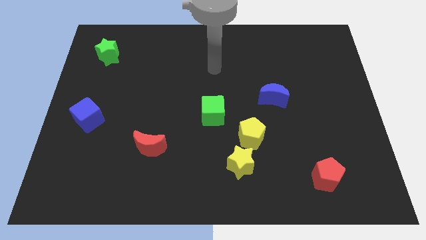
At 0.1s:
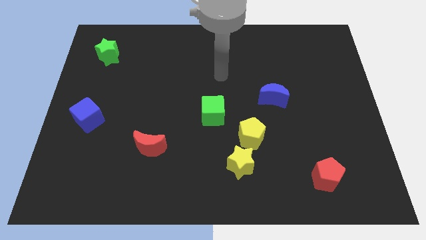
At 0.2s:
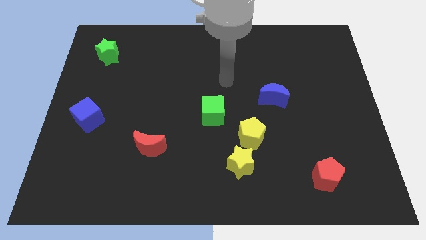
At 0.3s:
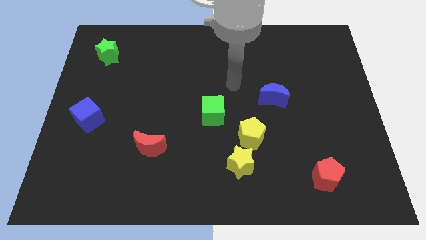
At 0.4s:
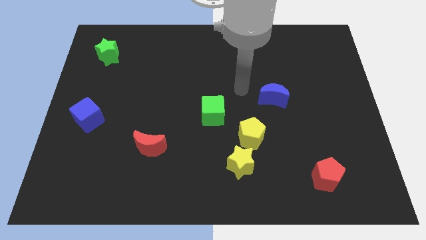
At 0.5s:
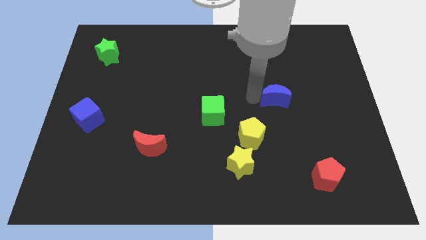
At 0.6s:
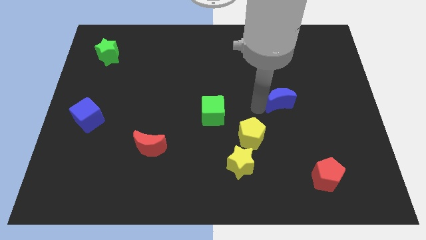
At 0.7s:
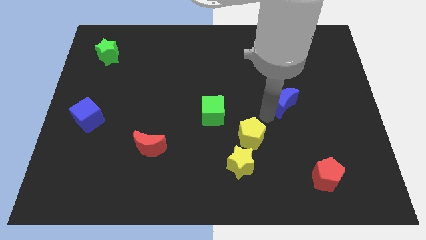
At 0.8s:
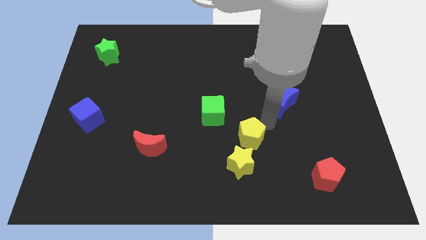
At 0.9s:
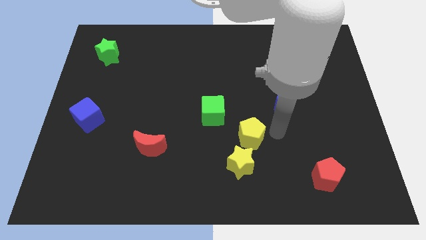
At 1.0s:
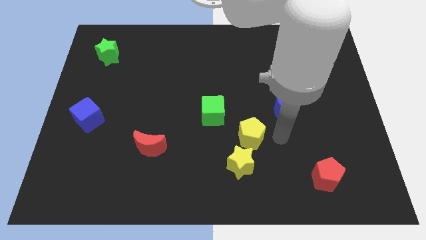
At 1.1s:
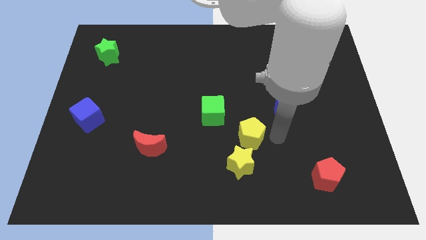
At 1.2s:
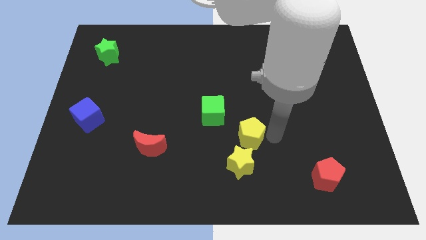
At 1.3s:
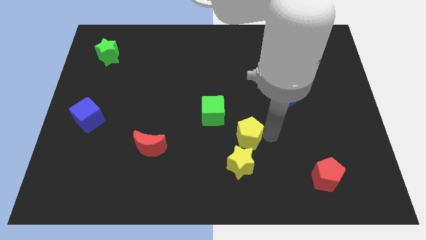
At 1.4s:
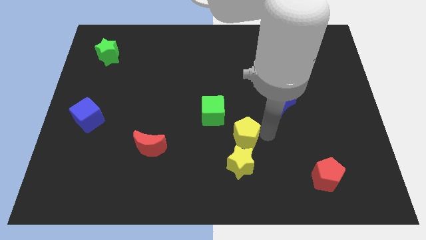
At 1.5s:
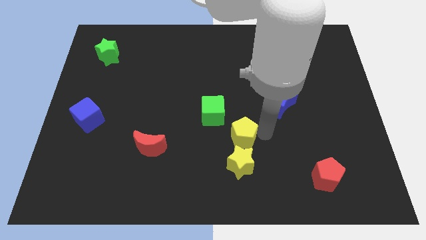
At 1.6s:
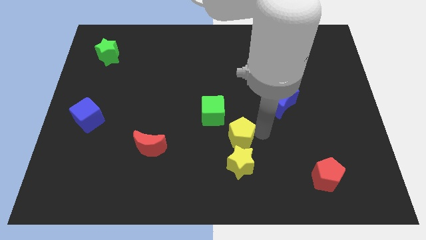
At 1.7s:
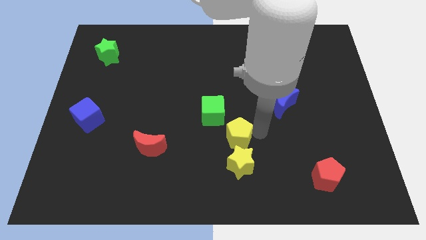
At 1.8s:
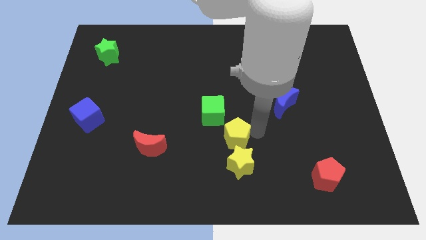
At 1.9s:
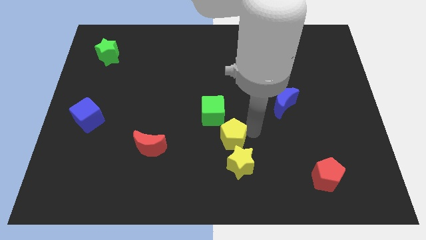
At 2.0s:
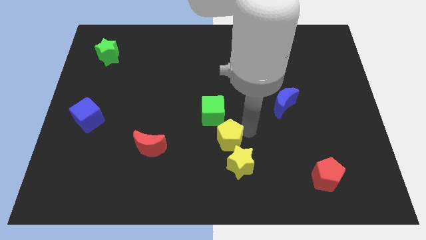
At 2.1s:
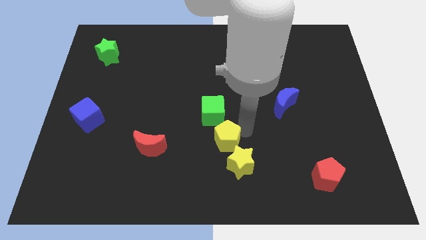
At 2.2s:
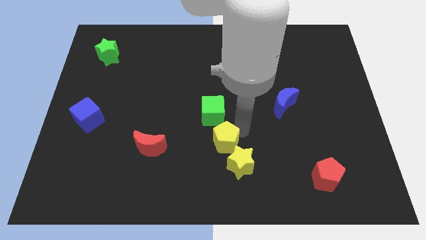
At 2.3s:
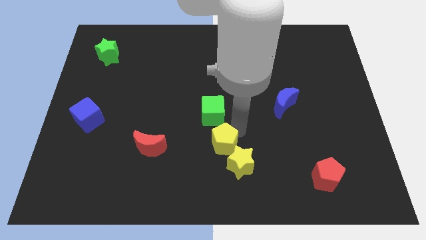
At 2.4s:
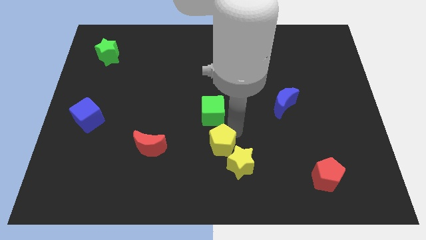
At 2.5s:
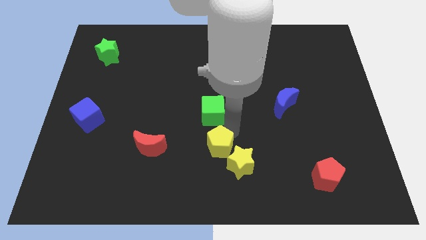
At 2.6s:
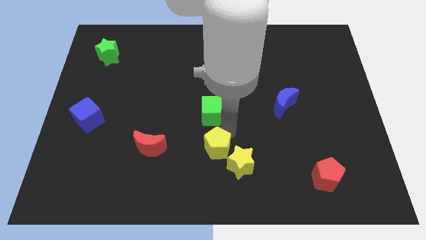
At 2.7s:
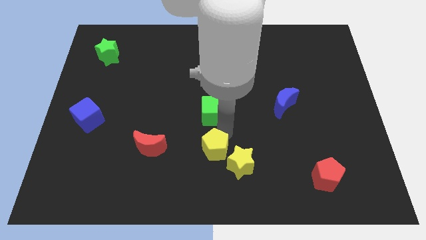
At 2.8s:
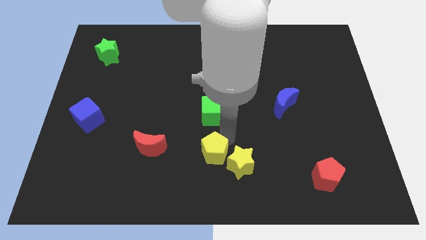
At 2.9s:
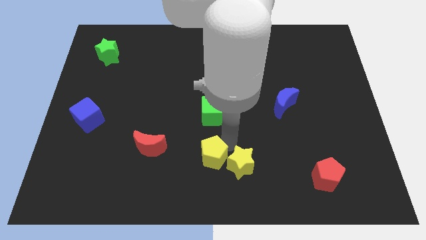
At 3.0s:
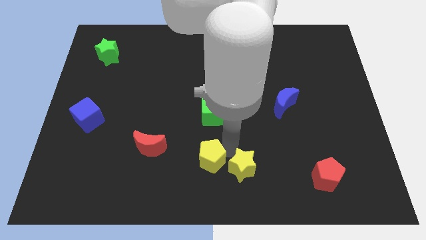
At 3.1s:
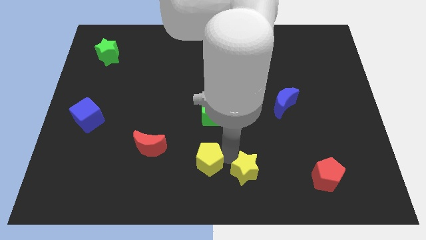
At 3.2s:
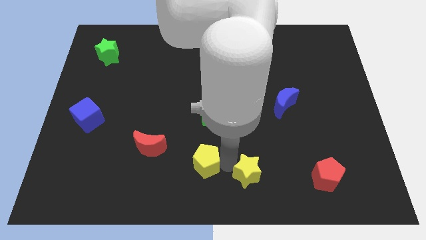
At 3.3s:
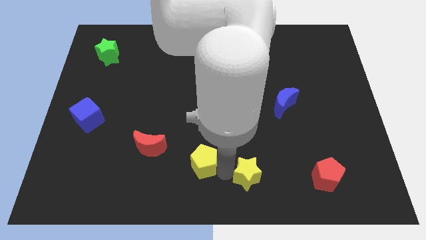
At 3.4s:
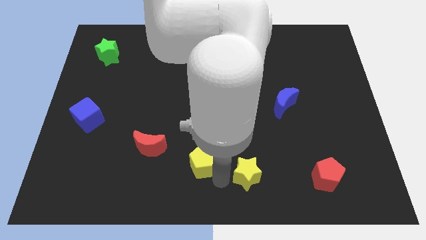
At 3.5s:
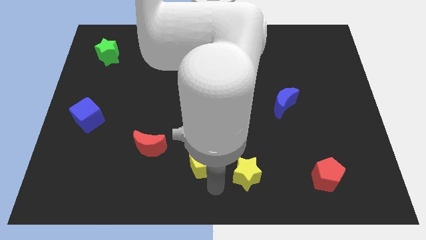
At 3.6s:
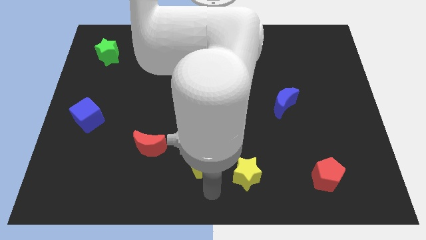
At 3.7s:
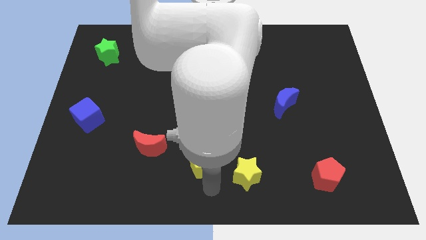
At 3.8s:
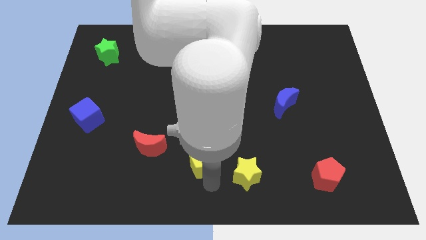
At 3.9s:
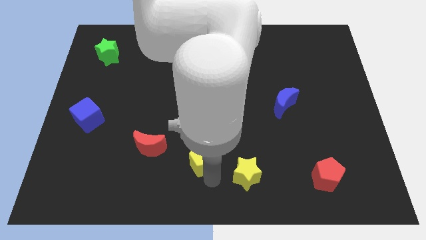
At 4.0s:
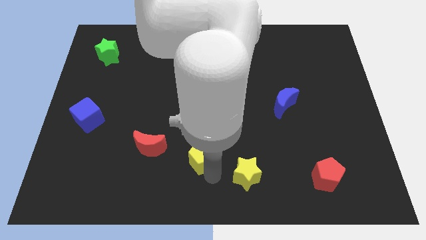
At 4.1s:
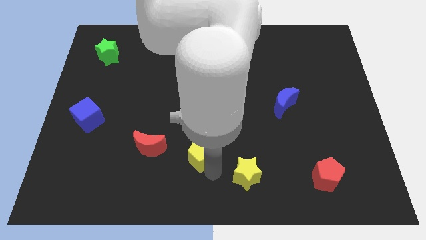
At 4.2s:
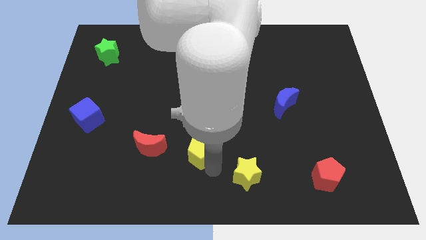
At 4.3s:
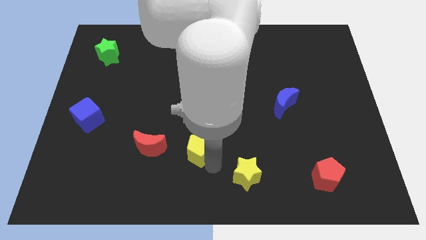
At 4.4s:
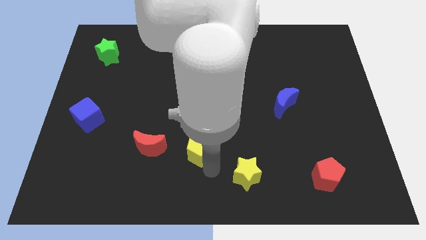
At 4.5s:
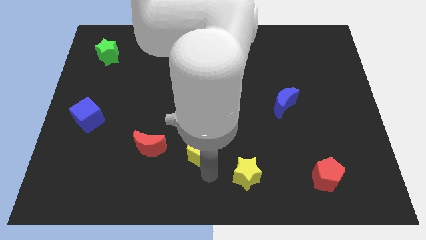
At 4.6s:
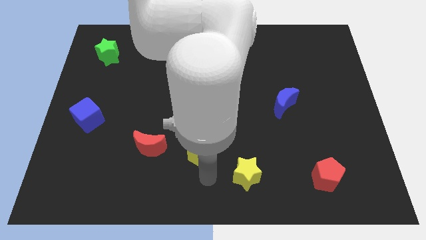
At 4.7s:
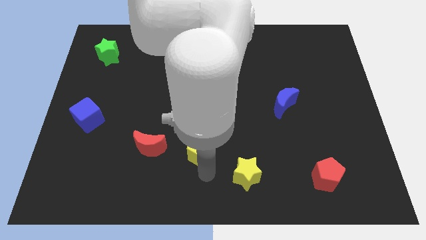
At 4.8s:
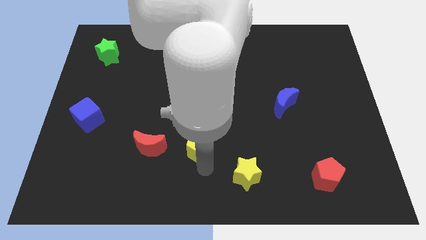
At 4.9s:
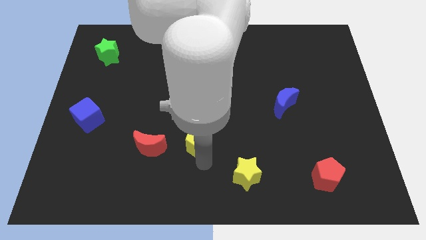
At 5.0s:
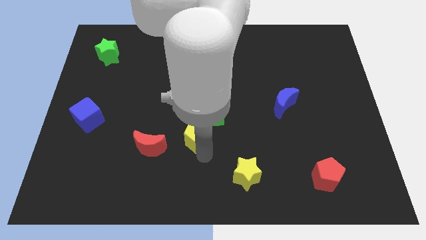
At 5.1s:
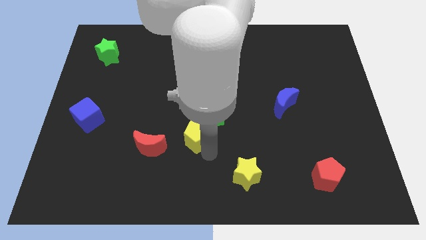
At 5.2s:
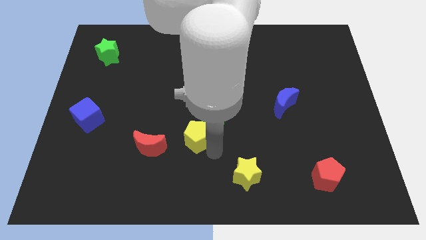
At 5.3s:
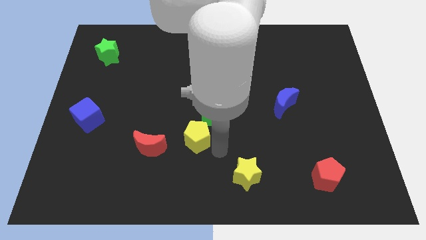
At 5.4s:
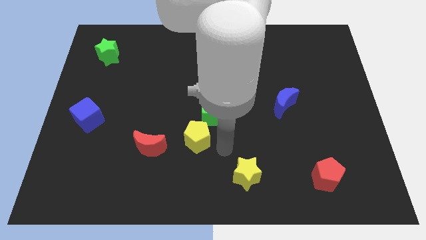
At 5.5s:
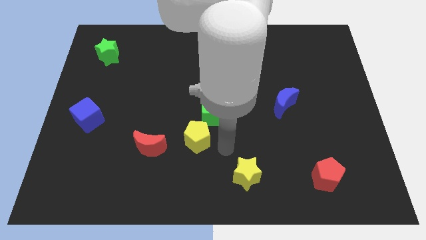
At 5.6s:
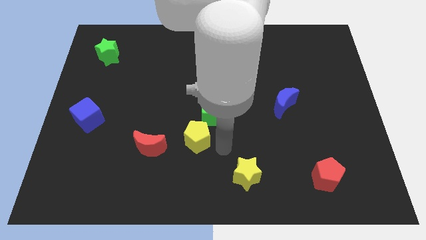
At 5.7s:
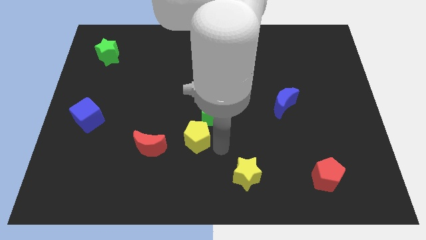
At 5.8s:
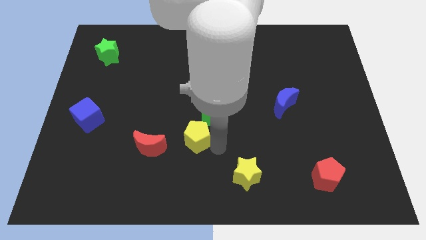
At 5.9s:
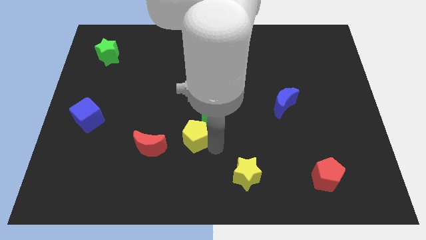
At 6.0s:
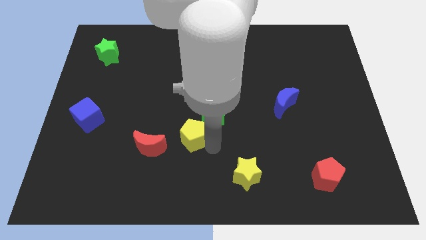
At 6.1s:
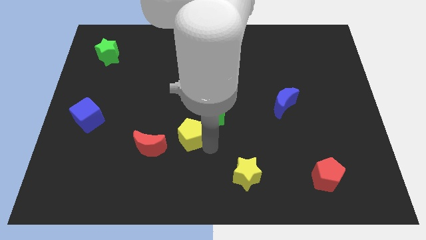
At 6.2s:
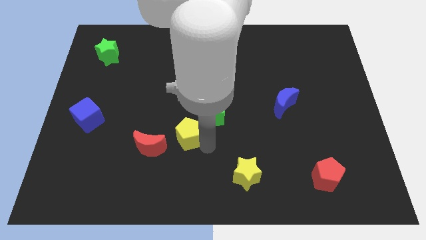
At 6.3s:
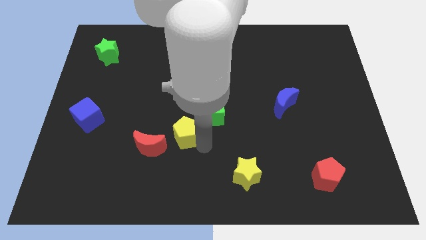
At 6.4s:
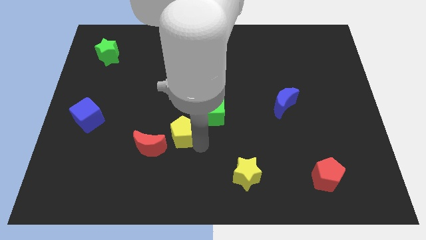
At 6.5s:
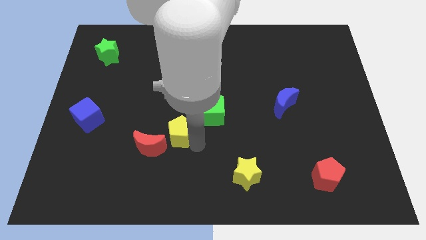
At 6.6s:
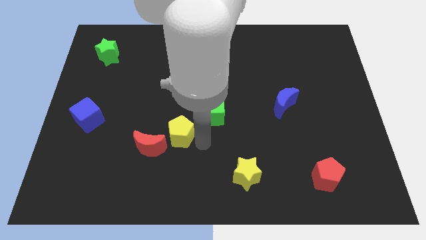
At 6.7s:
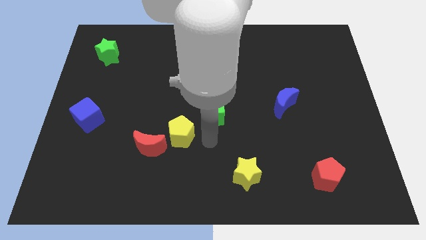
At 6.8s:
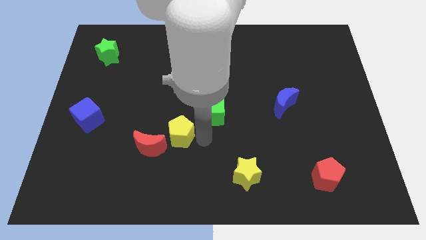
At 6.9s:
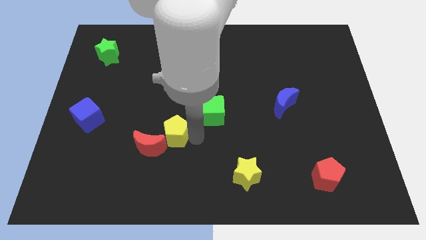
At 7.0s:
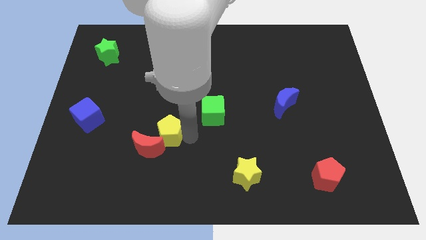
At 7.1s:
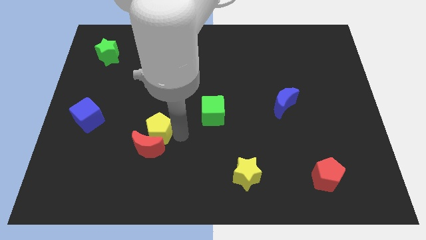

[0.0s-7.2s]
slide the yellow pentagon to the left

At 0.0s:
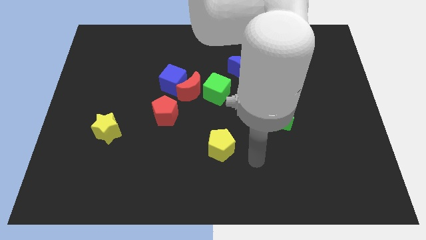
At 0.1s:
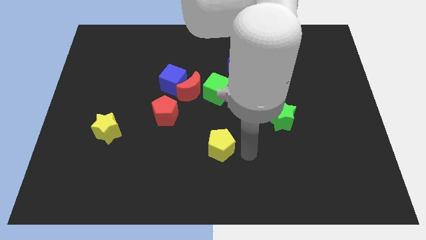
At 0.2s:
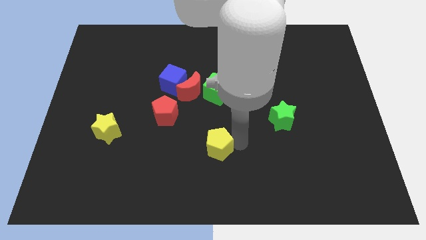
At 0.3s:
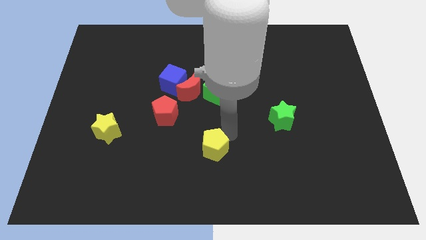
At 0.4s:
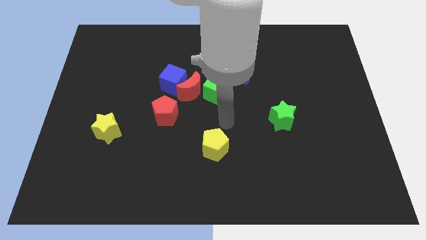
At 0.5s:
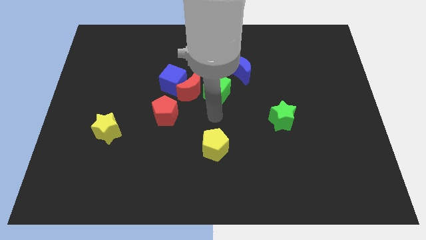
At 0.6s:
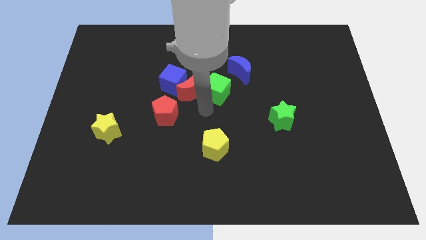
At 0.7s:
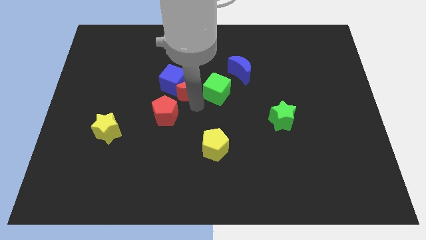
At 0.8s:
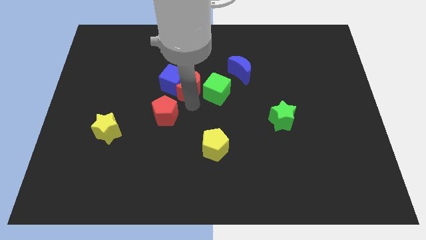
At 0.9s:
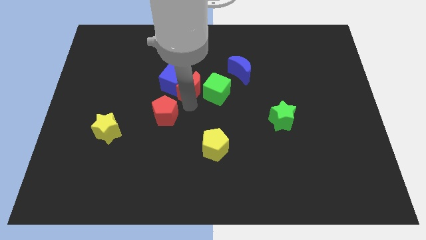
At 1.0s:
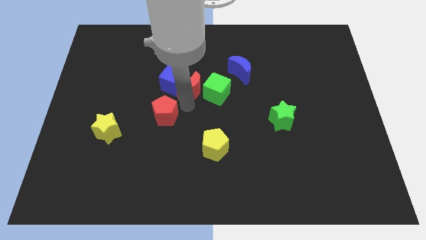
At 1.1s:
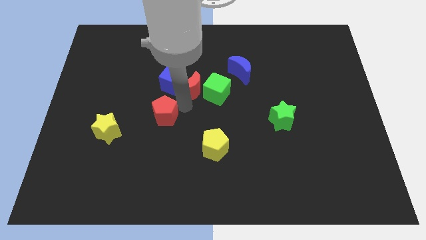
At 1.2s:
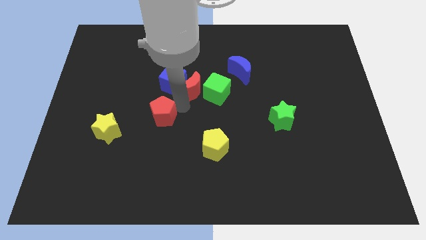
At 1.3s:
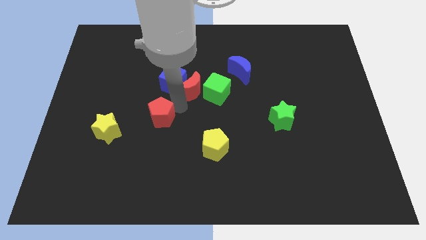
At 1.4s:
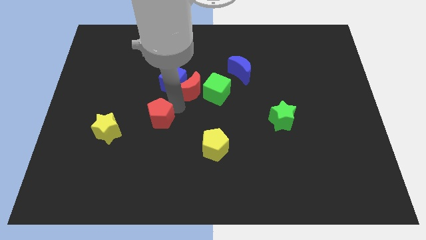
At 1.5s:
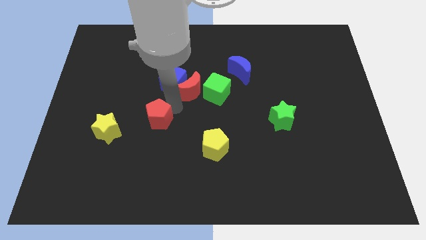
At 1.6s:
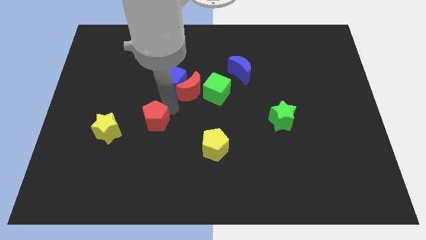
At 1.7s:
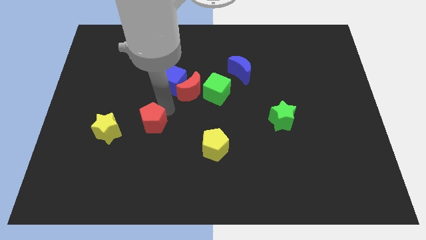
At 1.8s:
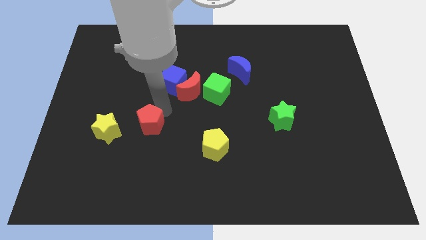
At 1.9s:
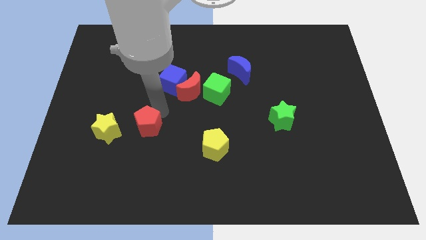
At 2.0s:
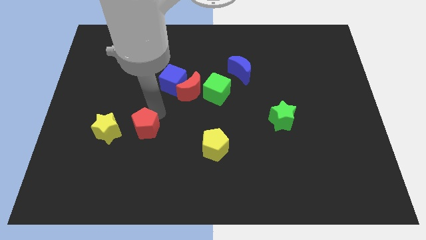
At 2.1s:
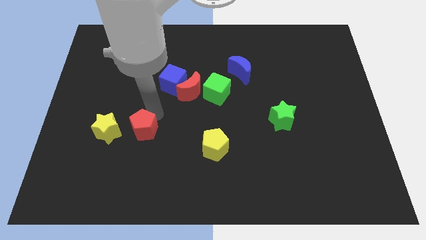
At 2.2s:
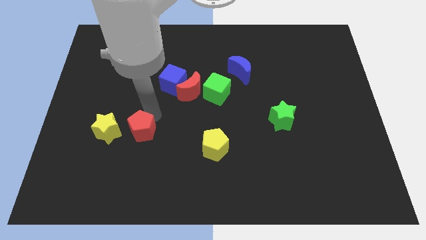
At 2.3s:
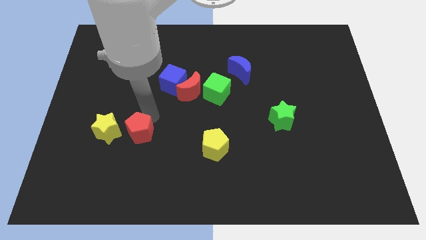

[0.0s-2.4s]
slide the red pentagon diagonally down and to the left somewhat
